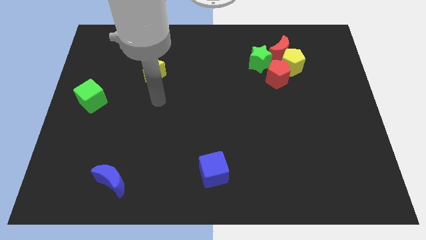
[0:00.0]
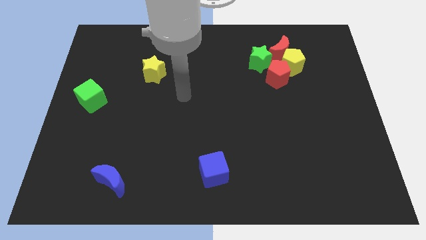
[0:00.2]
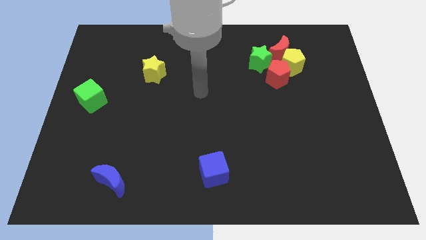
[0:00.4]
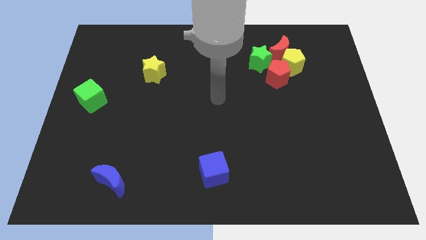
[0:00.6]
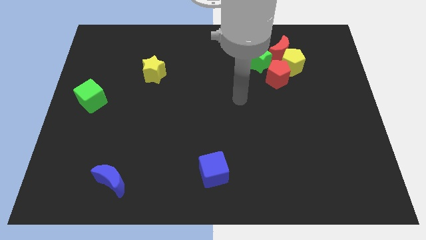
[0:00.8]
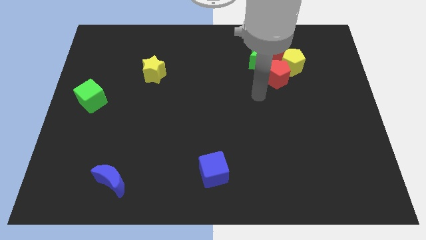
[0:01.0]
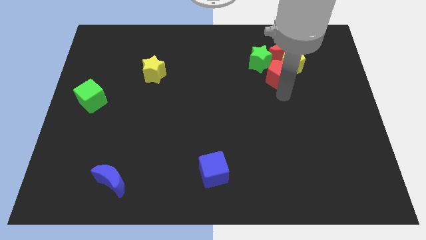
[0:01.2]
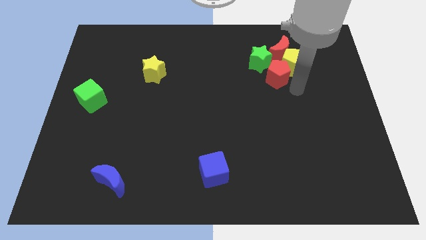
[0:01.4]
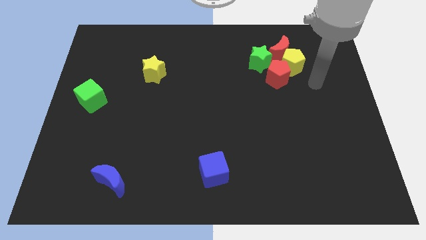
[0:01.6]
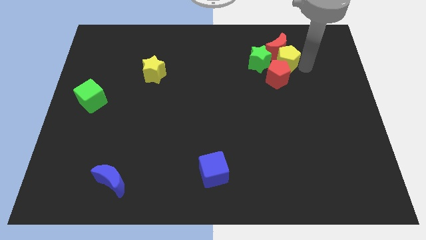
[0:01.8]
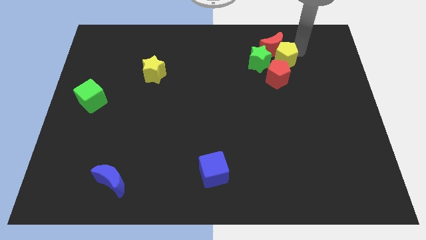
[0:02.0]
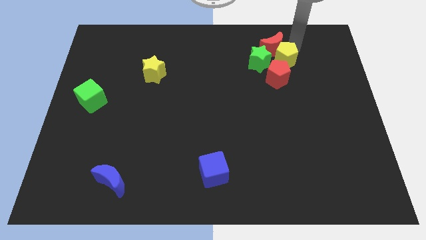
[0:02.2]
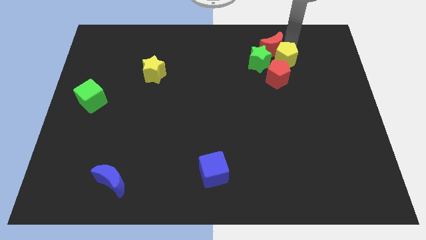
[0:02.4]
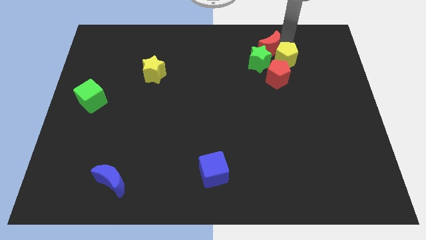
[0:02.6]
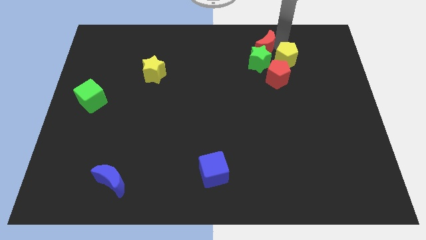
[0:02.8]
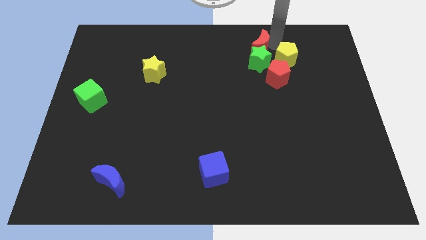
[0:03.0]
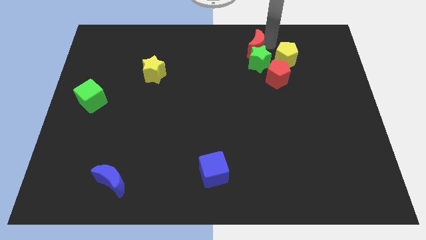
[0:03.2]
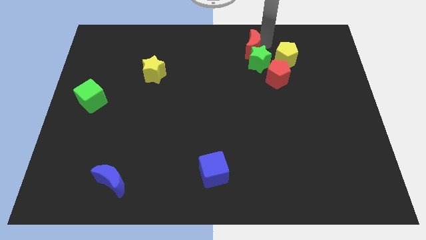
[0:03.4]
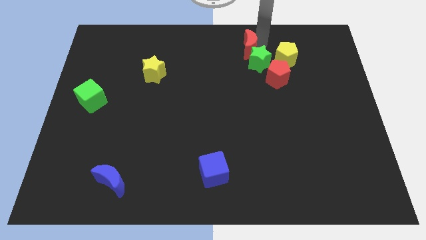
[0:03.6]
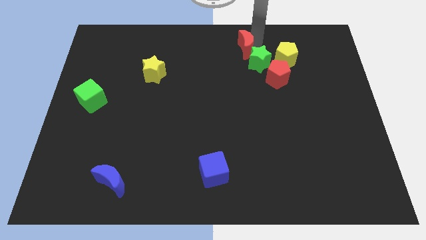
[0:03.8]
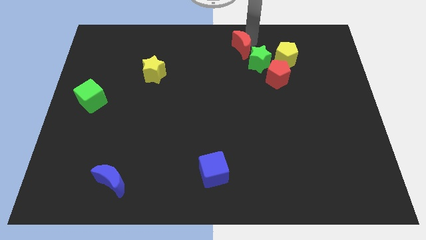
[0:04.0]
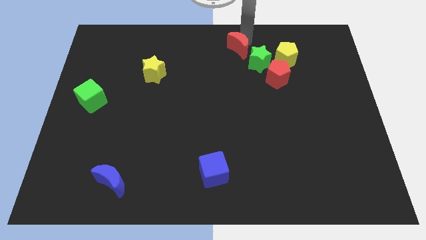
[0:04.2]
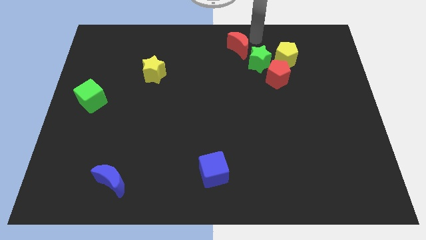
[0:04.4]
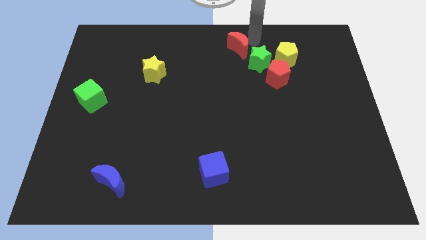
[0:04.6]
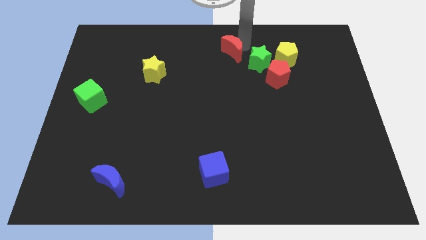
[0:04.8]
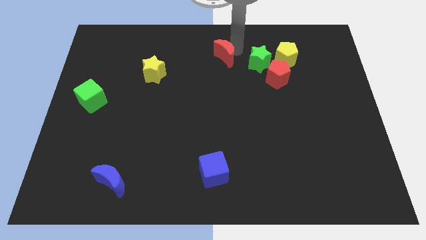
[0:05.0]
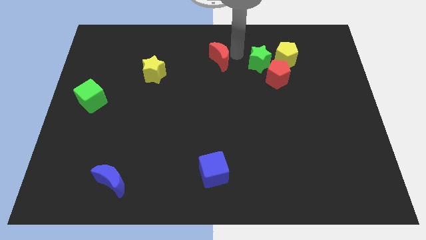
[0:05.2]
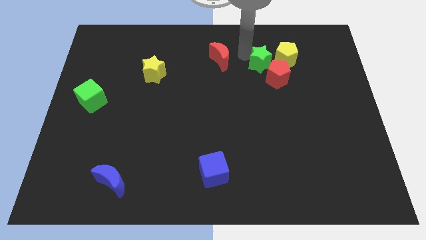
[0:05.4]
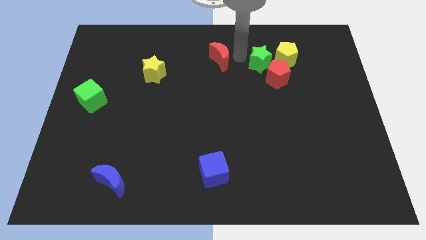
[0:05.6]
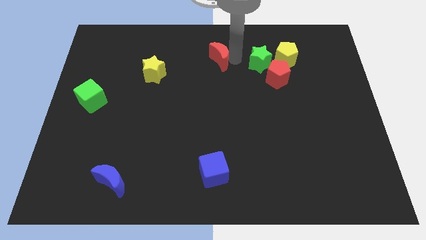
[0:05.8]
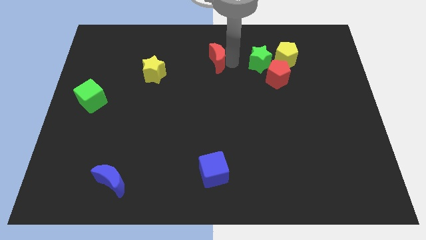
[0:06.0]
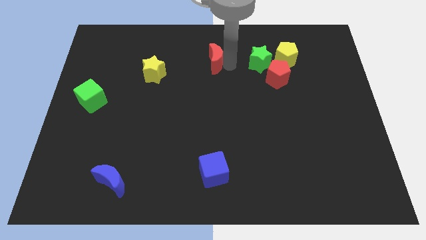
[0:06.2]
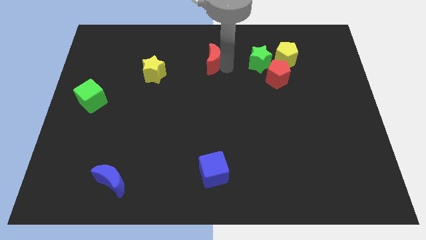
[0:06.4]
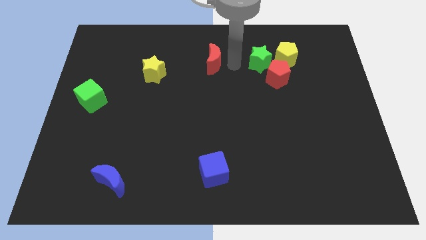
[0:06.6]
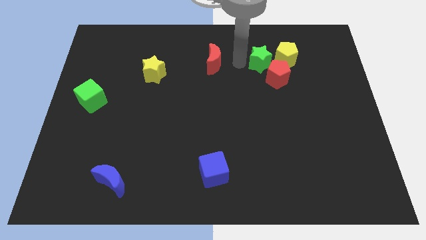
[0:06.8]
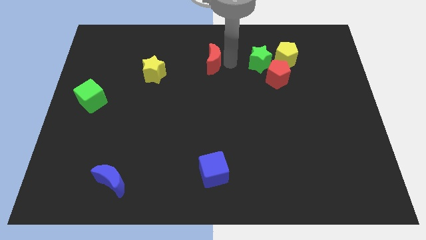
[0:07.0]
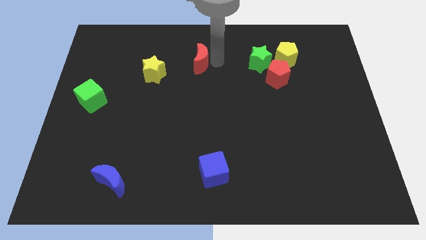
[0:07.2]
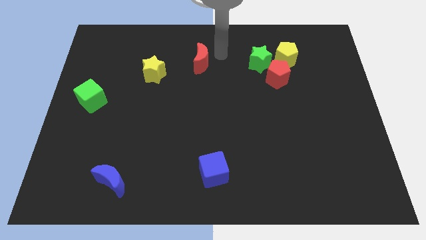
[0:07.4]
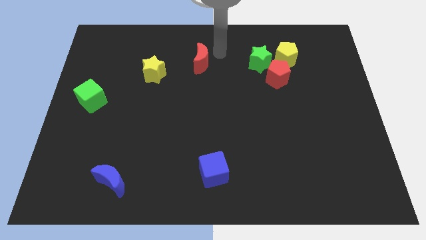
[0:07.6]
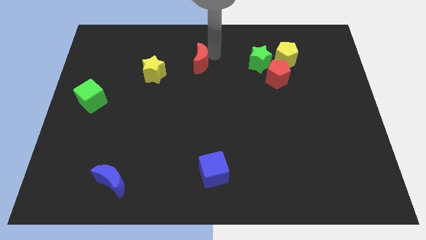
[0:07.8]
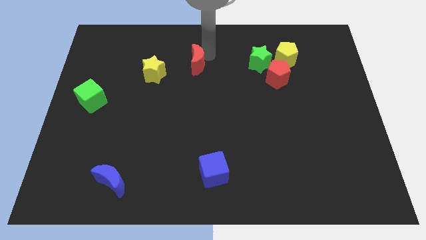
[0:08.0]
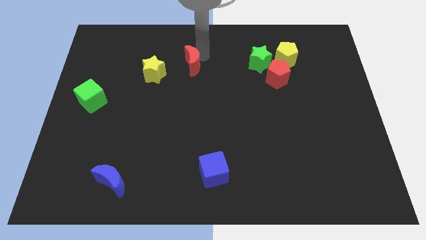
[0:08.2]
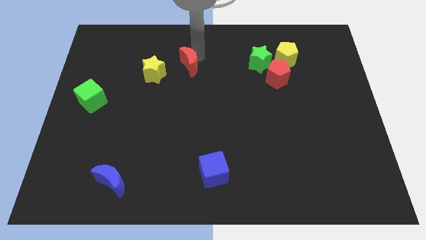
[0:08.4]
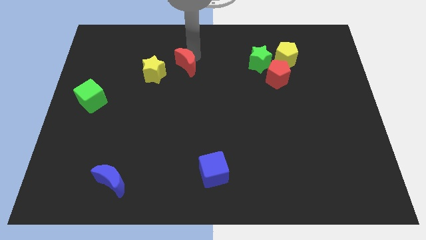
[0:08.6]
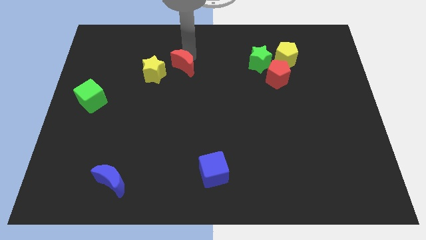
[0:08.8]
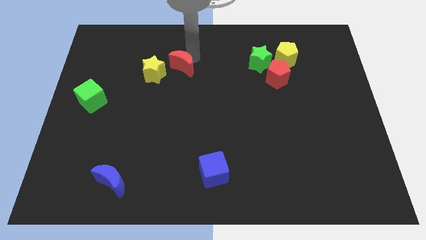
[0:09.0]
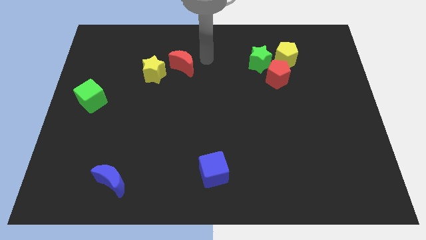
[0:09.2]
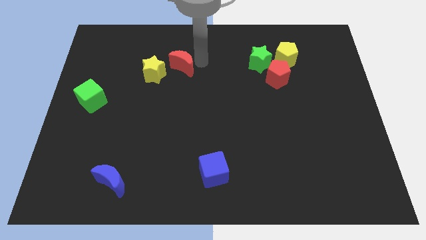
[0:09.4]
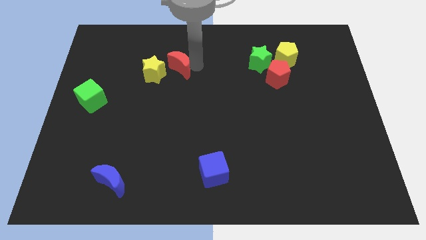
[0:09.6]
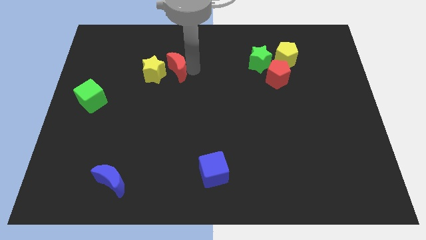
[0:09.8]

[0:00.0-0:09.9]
move the red moon next to the yellow star

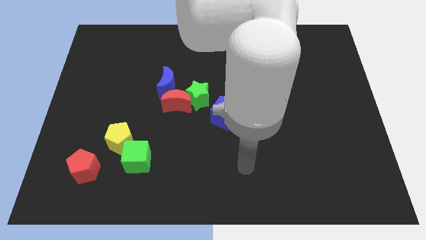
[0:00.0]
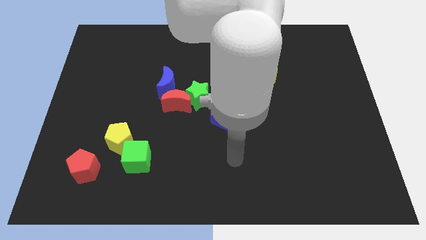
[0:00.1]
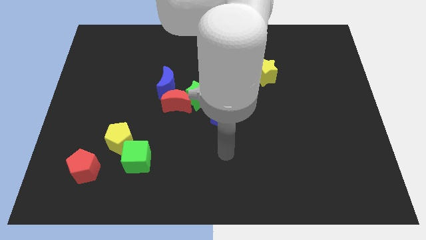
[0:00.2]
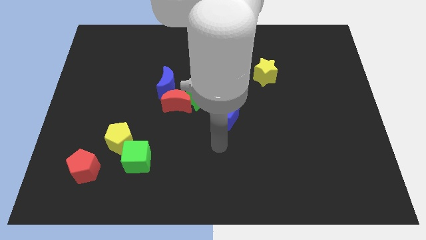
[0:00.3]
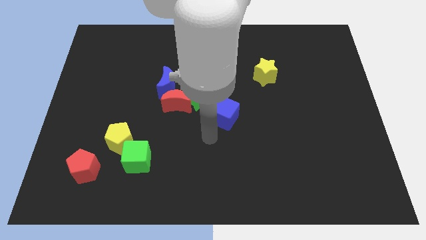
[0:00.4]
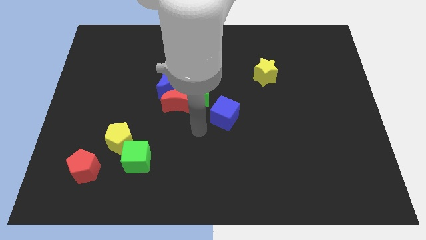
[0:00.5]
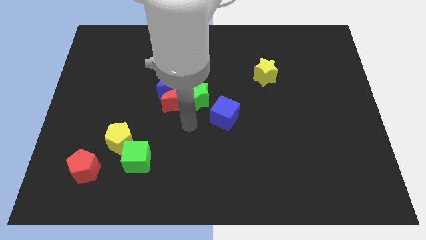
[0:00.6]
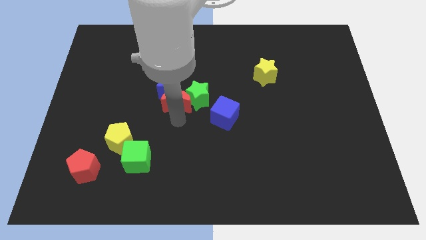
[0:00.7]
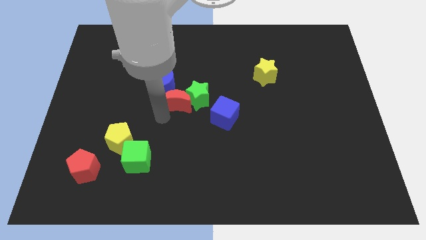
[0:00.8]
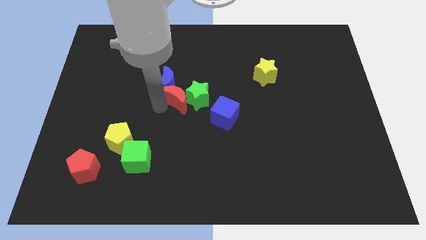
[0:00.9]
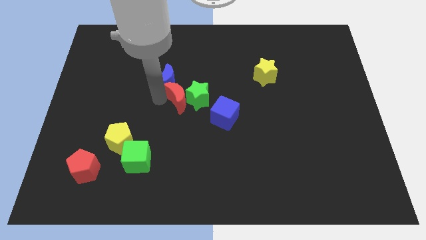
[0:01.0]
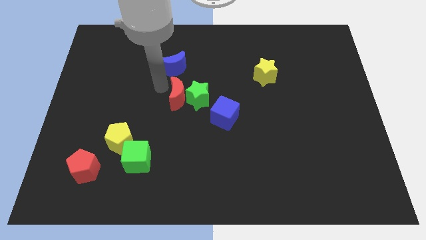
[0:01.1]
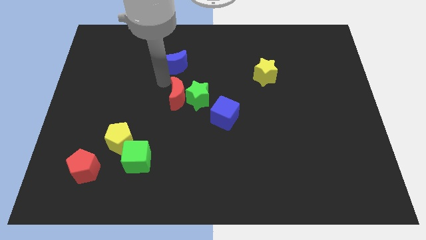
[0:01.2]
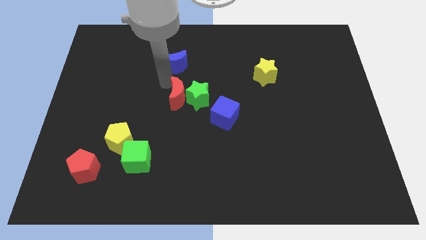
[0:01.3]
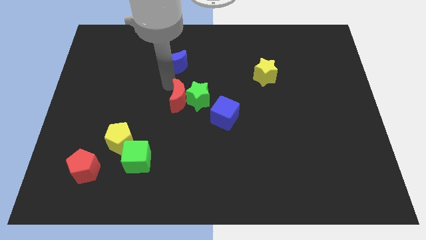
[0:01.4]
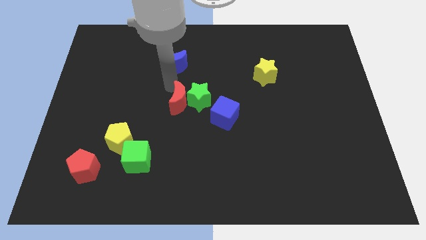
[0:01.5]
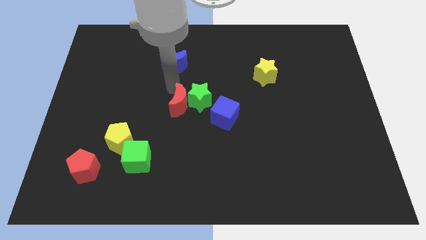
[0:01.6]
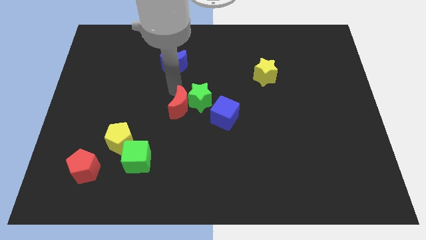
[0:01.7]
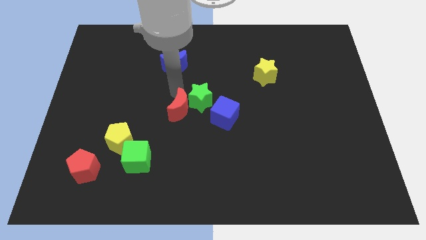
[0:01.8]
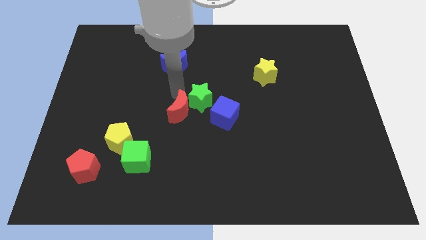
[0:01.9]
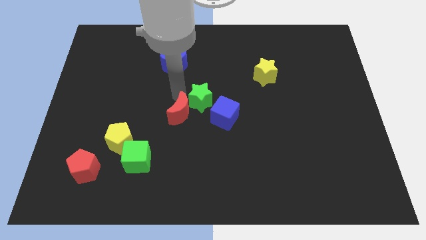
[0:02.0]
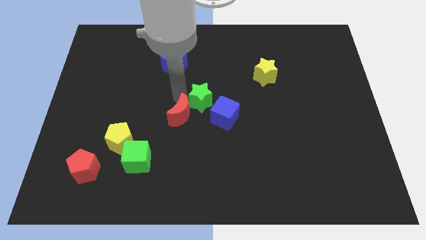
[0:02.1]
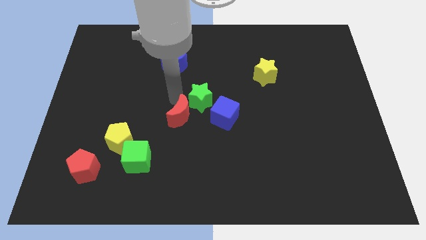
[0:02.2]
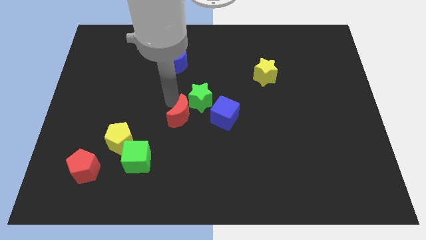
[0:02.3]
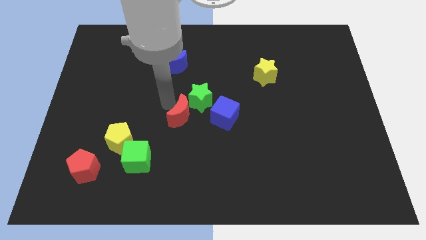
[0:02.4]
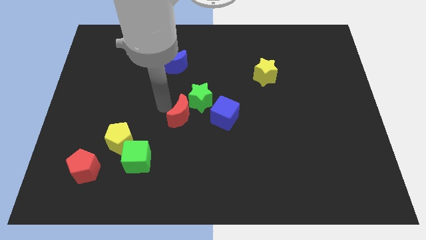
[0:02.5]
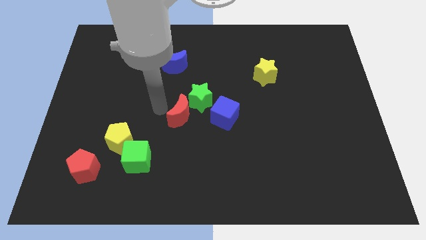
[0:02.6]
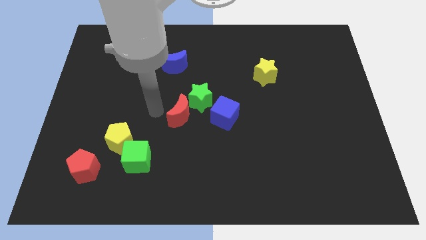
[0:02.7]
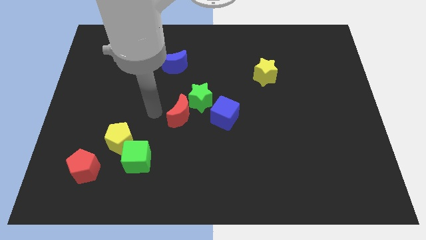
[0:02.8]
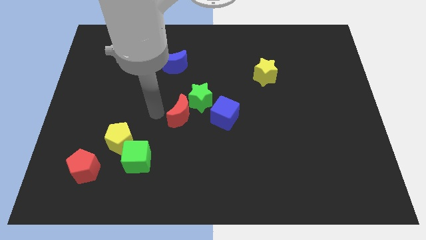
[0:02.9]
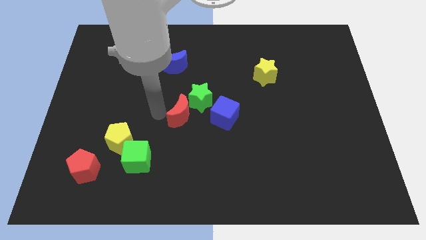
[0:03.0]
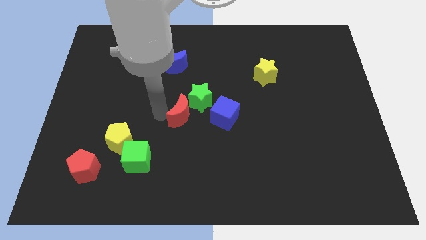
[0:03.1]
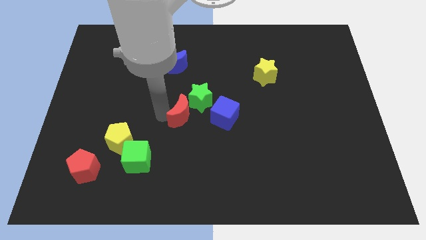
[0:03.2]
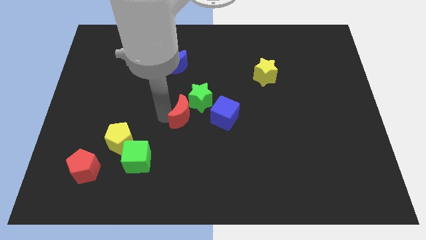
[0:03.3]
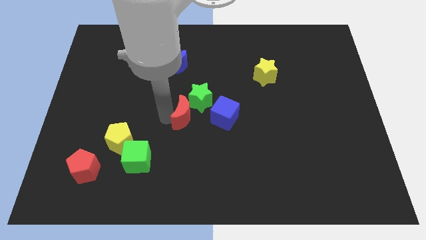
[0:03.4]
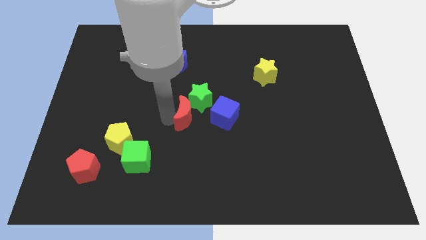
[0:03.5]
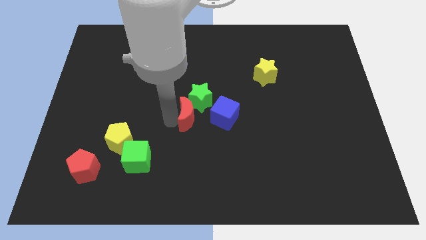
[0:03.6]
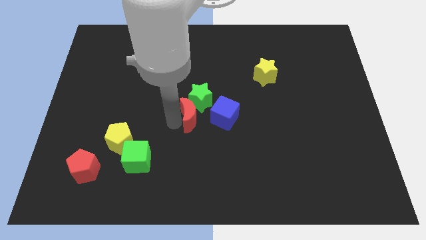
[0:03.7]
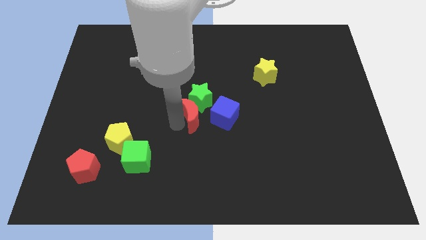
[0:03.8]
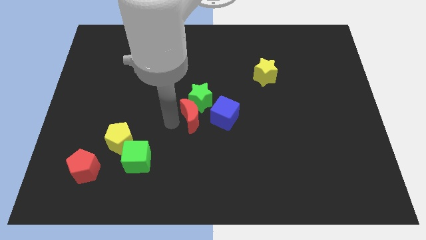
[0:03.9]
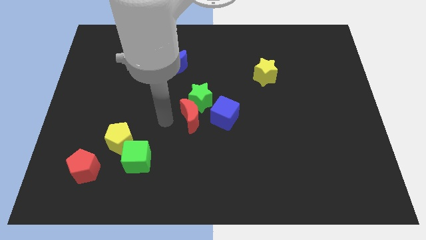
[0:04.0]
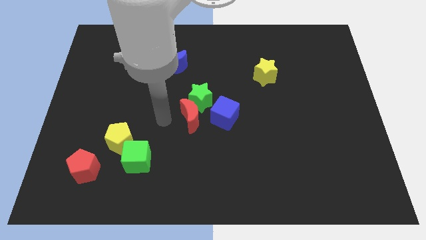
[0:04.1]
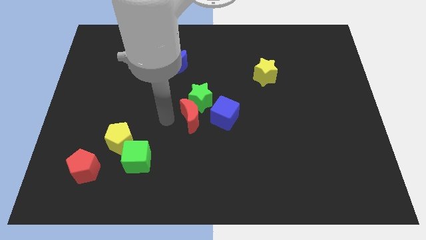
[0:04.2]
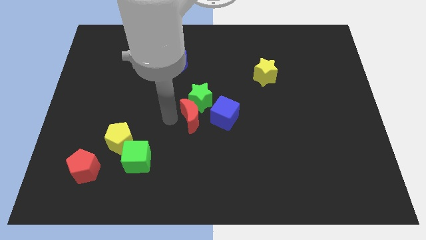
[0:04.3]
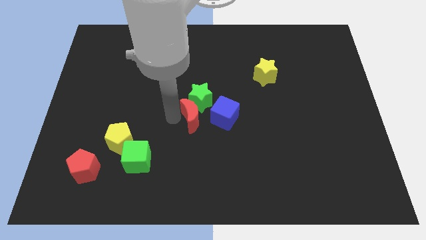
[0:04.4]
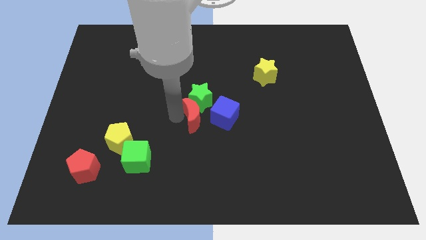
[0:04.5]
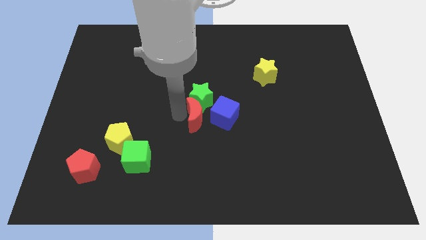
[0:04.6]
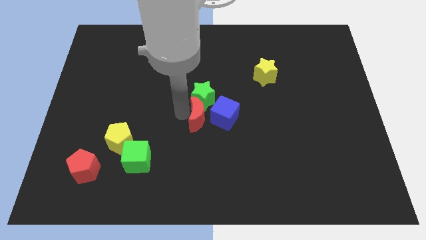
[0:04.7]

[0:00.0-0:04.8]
push the red moon towards the blue cube
